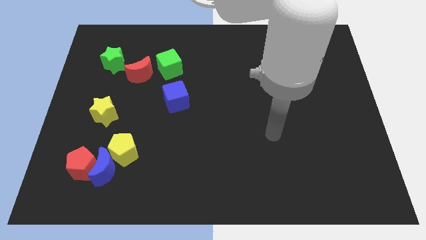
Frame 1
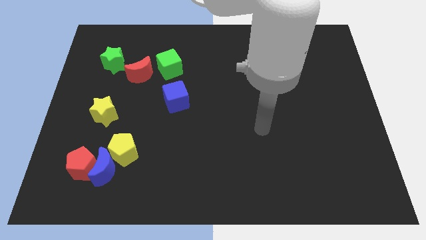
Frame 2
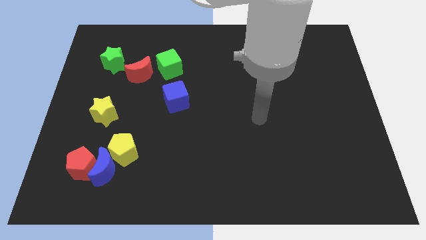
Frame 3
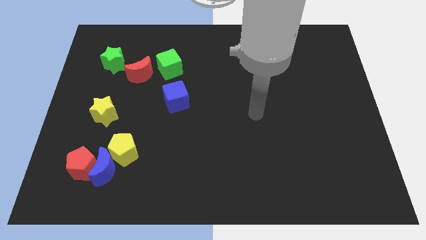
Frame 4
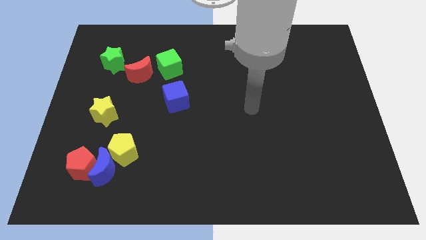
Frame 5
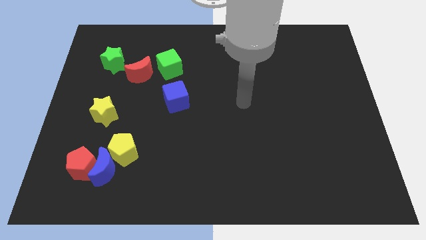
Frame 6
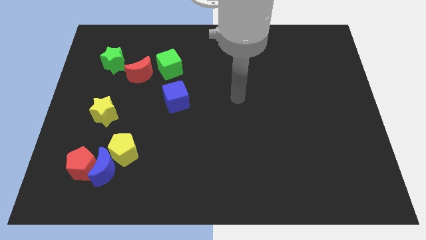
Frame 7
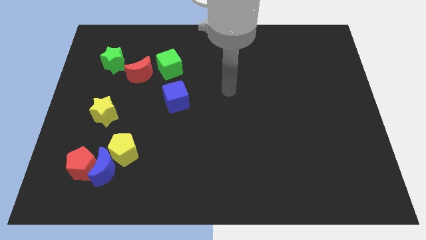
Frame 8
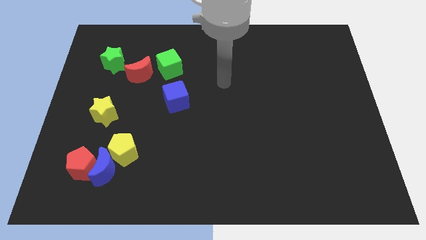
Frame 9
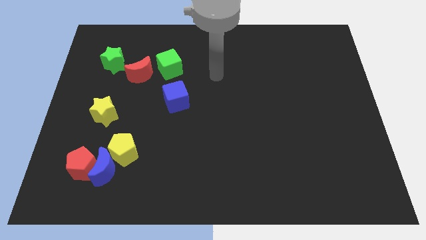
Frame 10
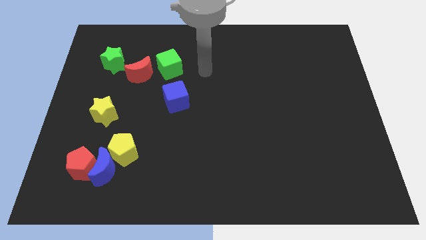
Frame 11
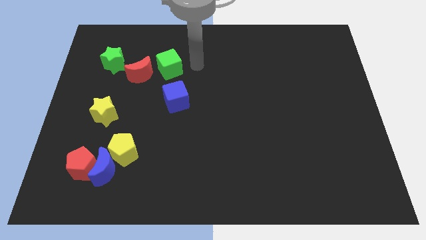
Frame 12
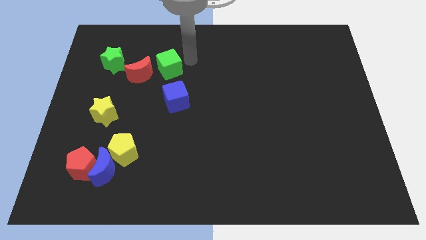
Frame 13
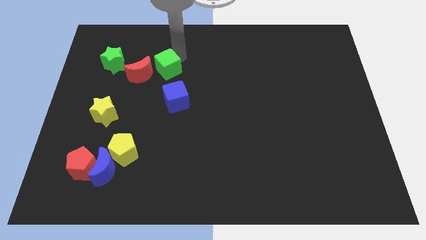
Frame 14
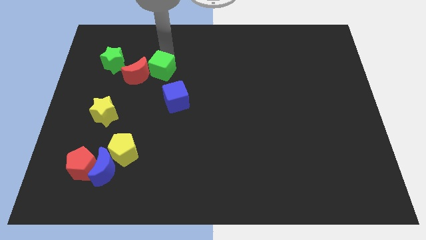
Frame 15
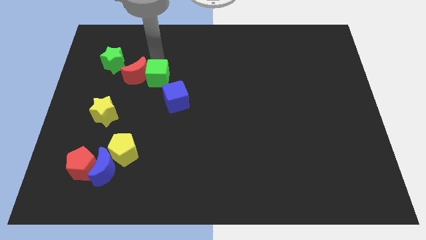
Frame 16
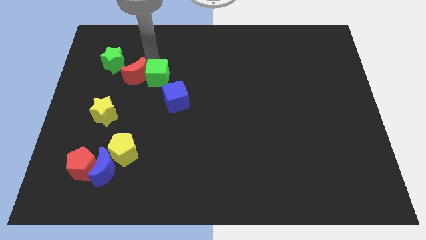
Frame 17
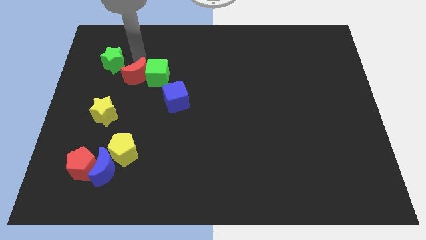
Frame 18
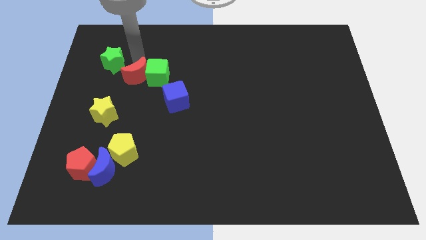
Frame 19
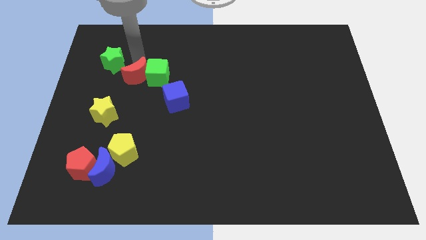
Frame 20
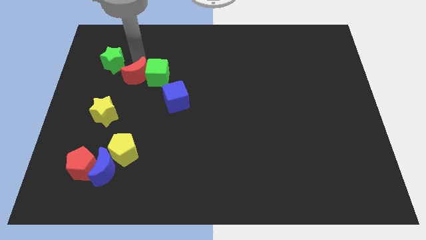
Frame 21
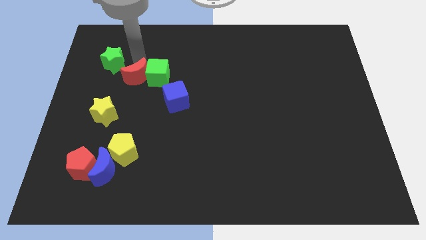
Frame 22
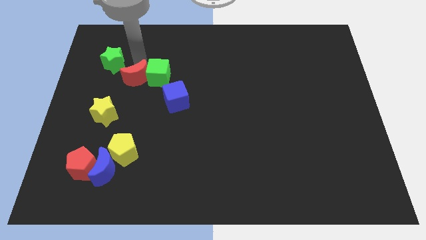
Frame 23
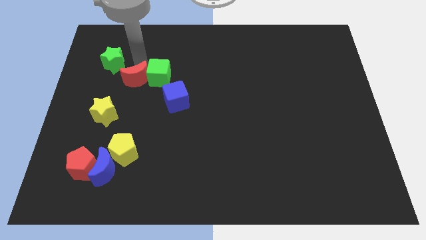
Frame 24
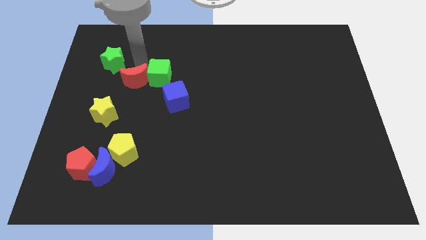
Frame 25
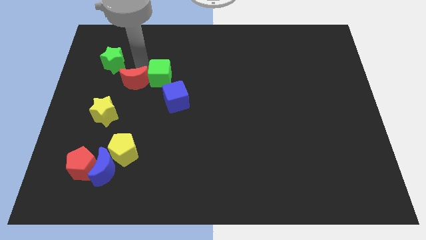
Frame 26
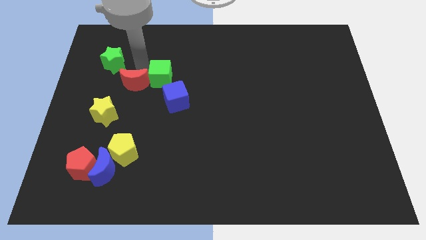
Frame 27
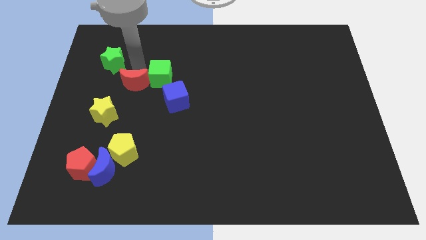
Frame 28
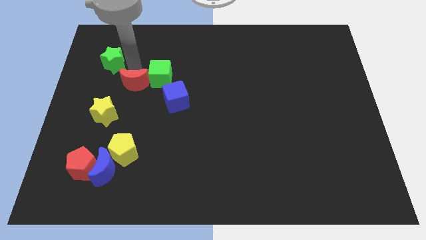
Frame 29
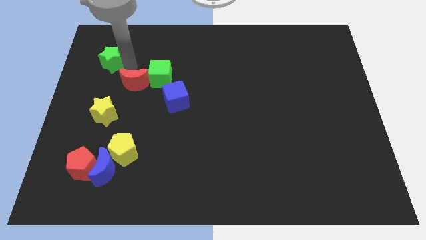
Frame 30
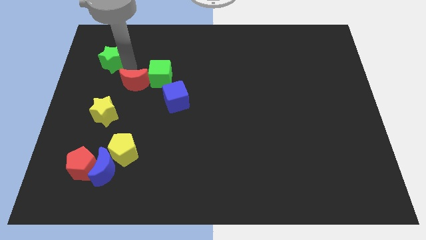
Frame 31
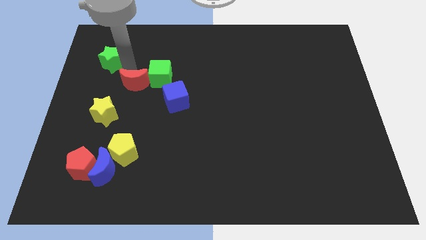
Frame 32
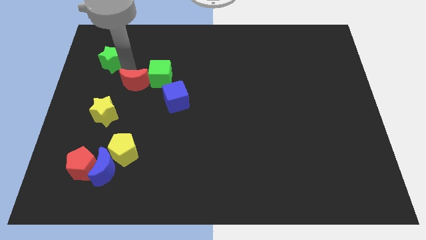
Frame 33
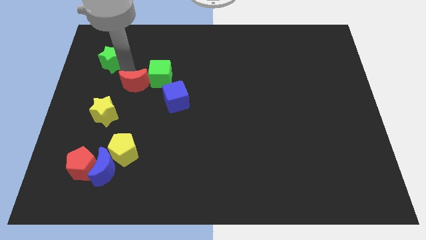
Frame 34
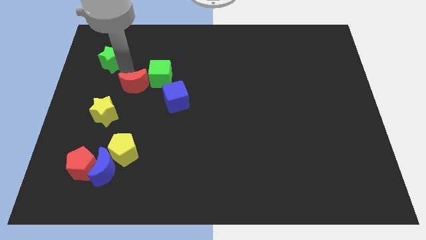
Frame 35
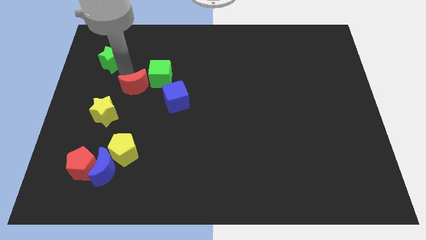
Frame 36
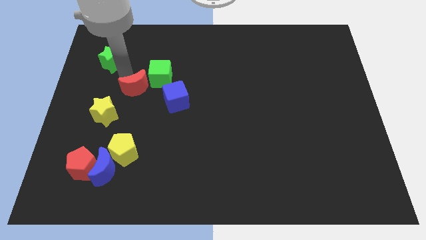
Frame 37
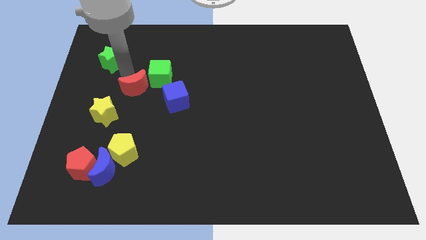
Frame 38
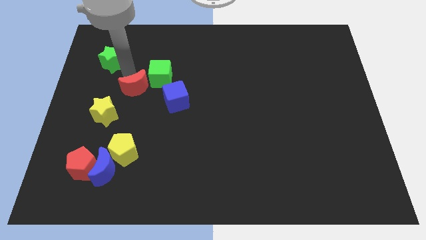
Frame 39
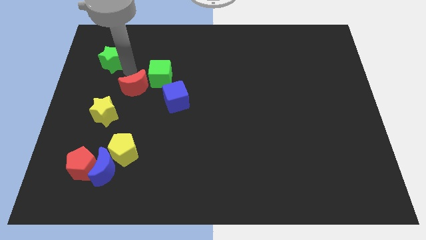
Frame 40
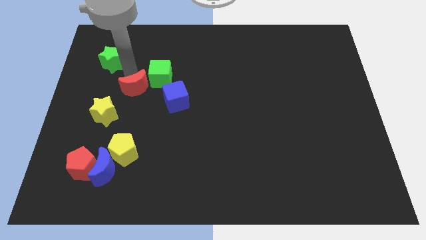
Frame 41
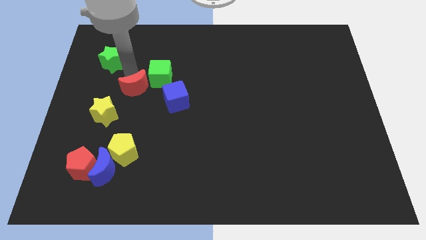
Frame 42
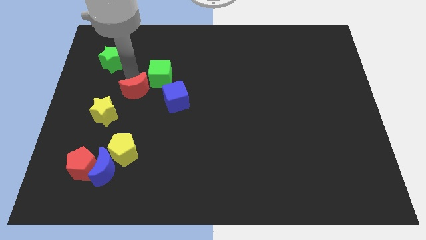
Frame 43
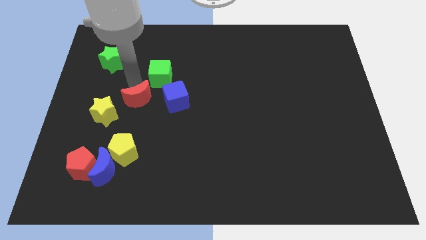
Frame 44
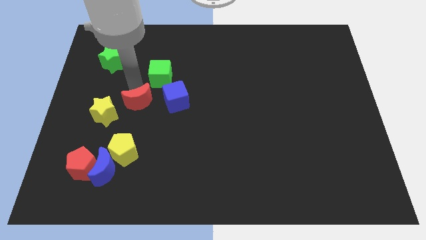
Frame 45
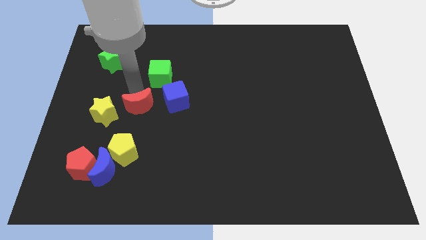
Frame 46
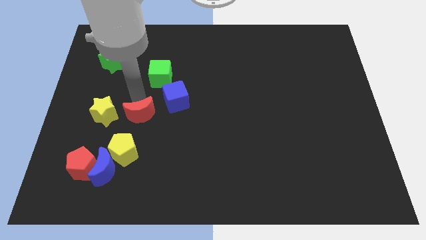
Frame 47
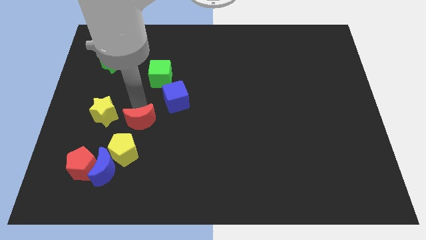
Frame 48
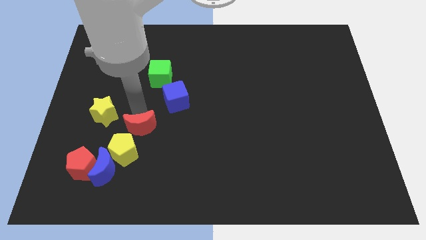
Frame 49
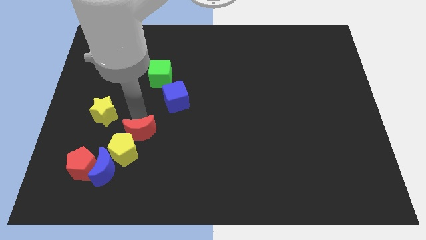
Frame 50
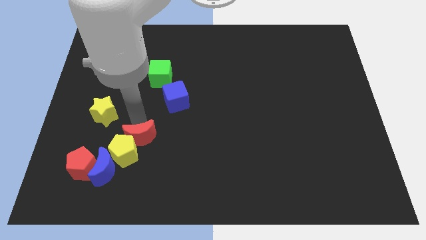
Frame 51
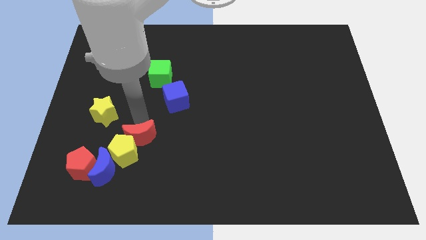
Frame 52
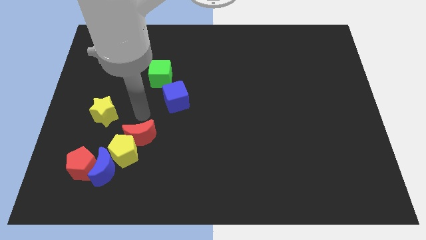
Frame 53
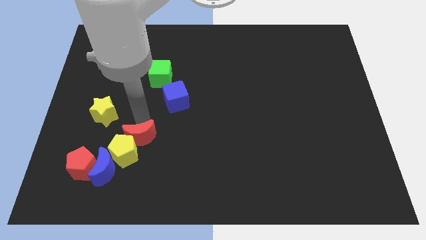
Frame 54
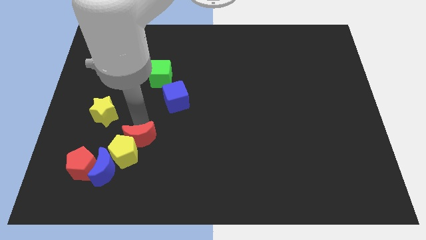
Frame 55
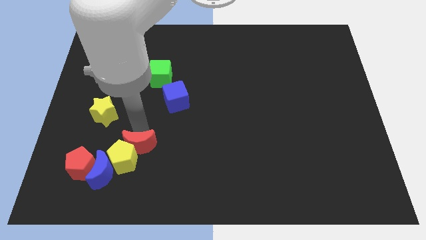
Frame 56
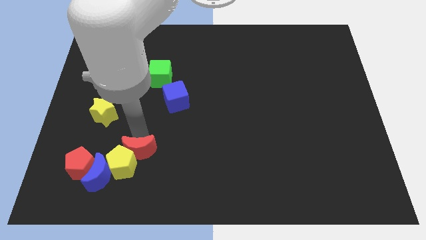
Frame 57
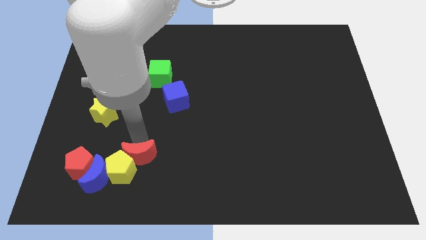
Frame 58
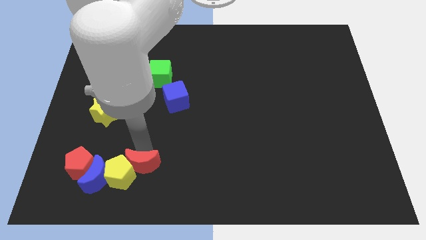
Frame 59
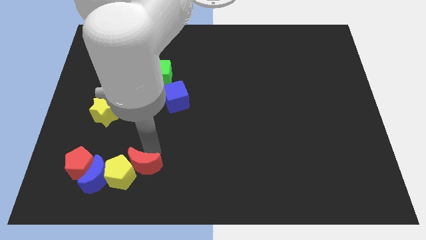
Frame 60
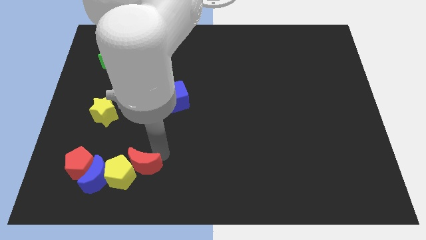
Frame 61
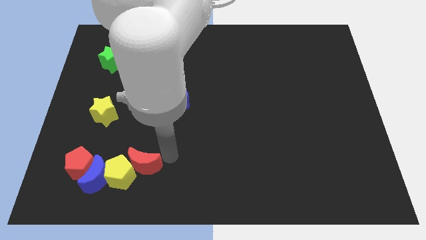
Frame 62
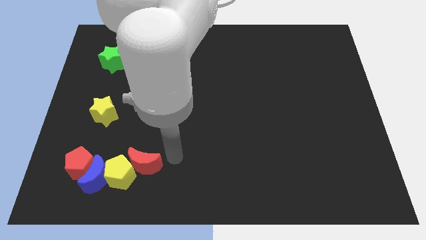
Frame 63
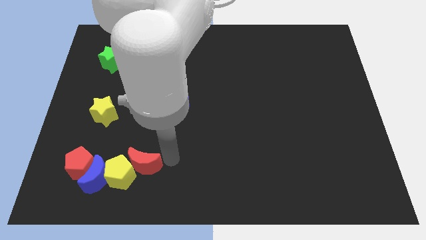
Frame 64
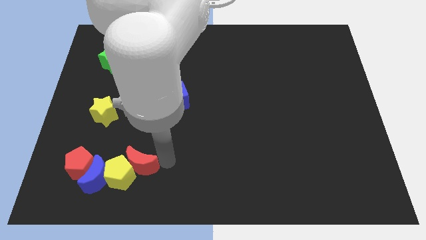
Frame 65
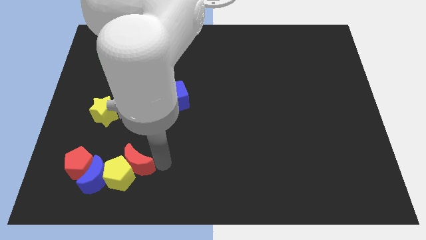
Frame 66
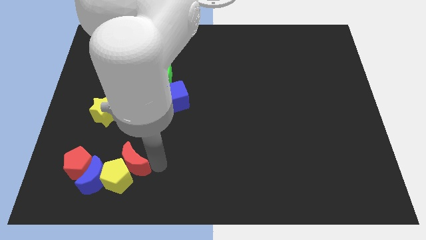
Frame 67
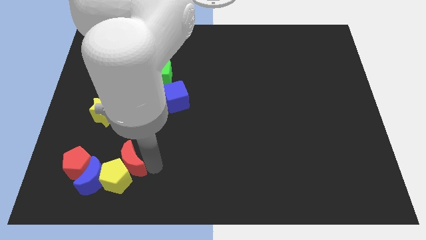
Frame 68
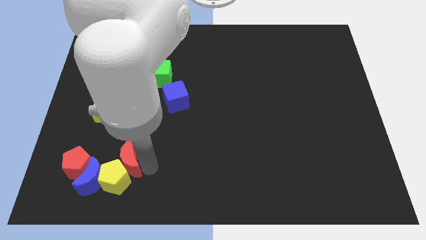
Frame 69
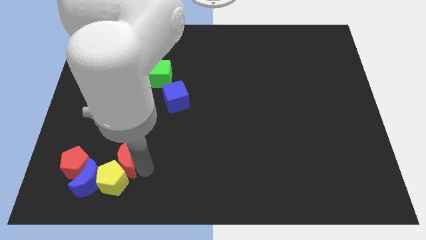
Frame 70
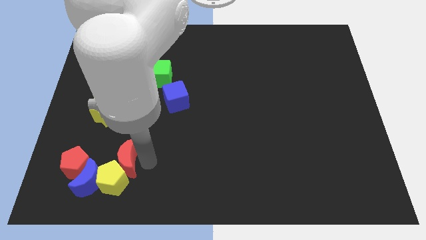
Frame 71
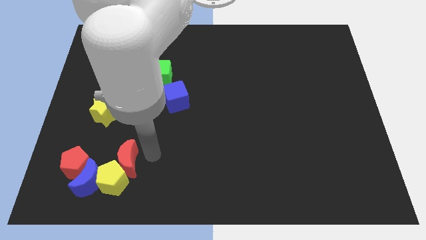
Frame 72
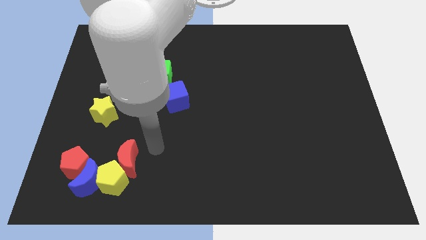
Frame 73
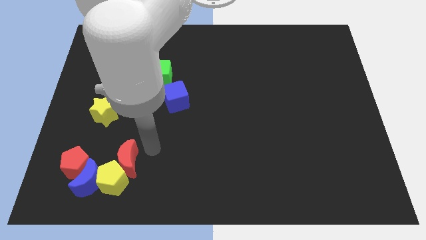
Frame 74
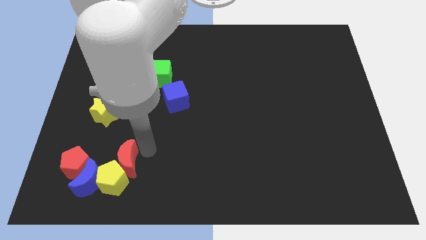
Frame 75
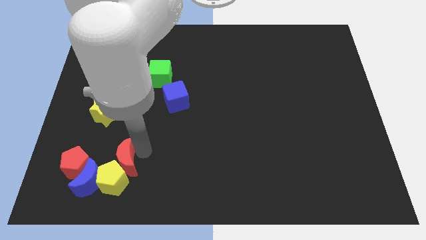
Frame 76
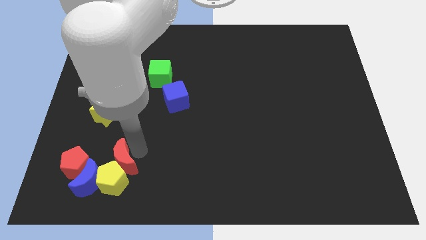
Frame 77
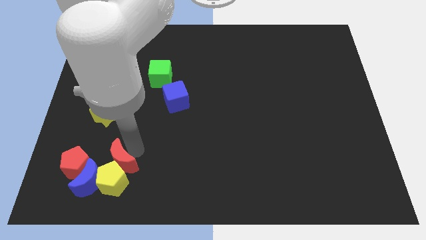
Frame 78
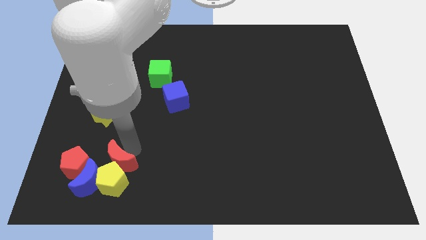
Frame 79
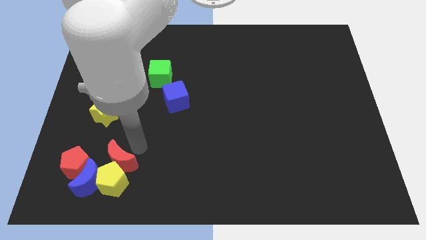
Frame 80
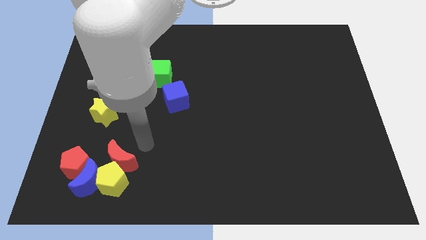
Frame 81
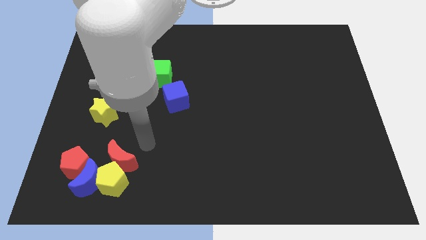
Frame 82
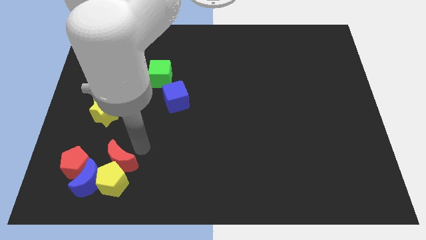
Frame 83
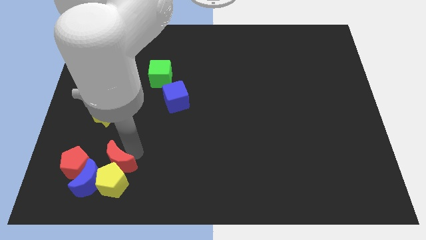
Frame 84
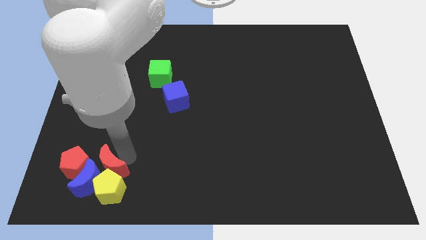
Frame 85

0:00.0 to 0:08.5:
put the red moon close to the blue moon
